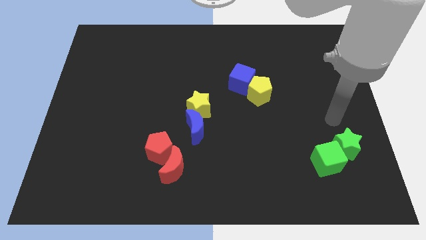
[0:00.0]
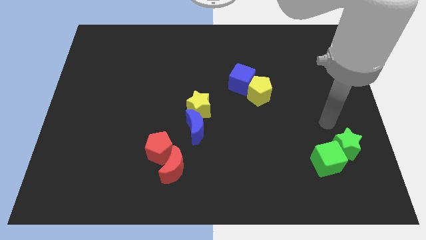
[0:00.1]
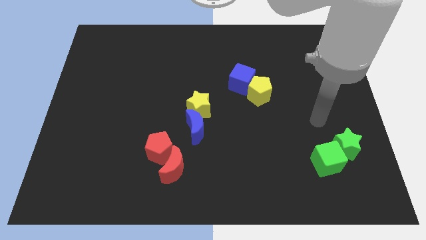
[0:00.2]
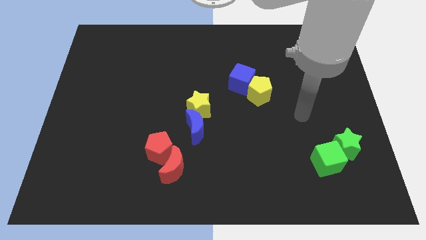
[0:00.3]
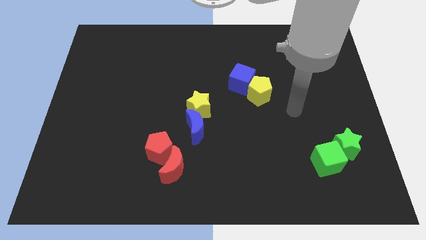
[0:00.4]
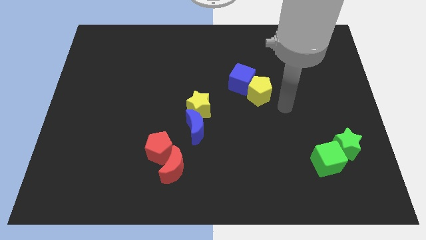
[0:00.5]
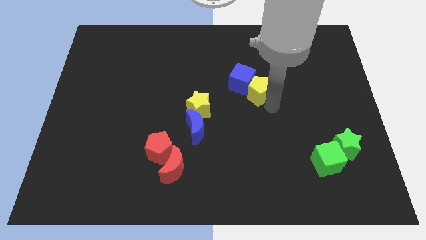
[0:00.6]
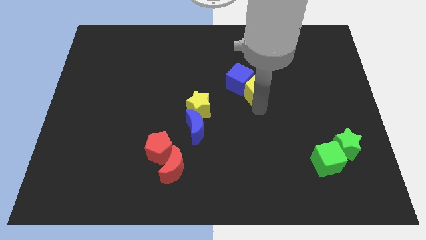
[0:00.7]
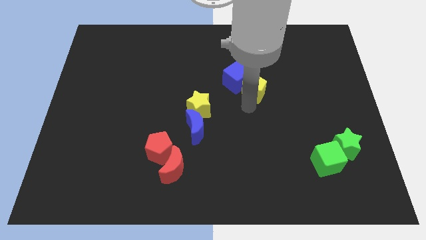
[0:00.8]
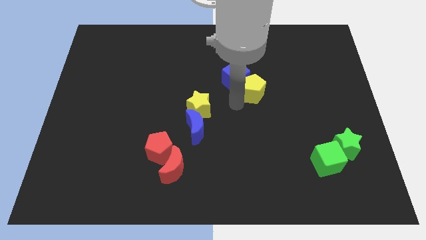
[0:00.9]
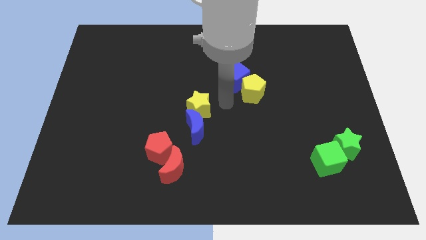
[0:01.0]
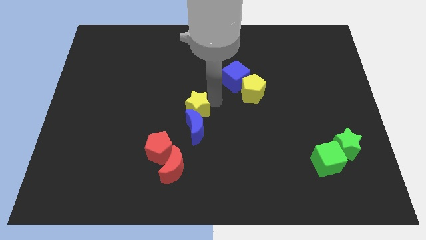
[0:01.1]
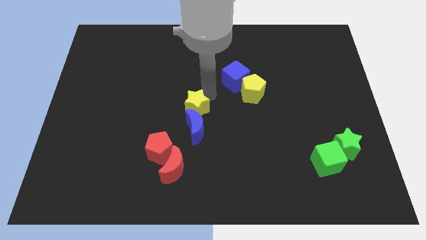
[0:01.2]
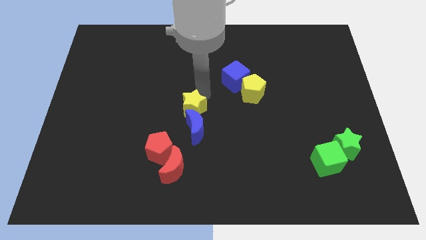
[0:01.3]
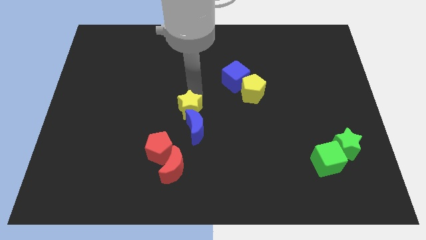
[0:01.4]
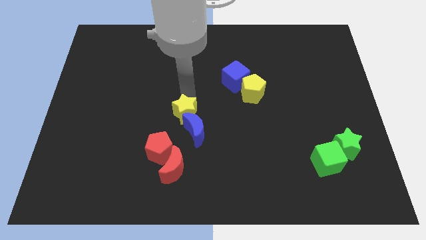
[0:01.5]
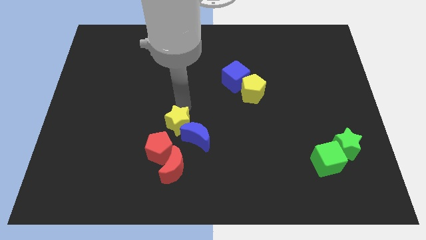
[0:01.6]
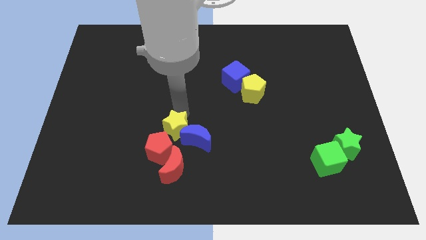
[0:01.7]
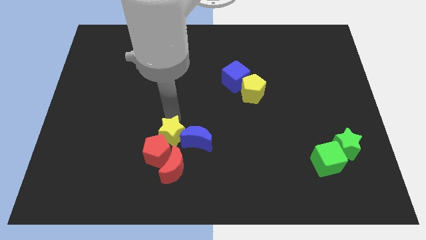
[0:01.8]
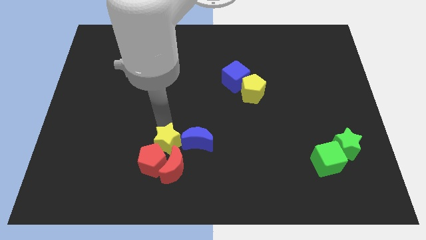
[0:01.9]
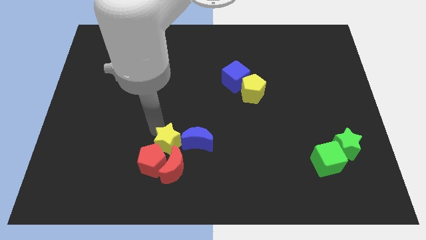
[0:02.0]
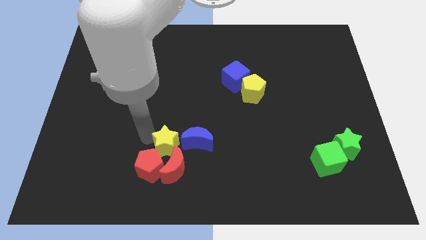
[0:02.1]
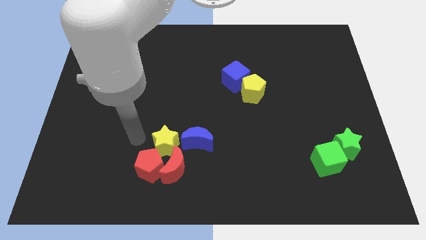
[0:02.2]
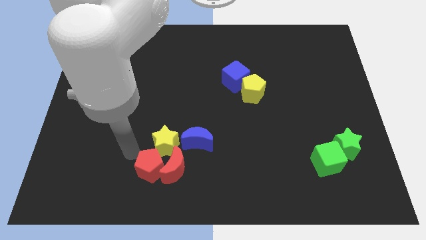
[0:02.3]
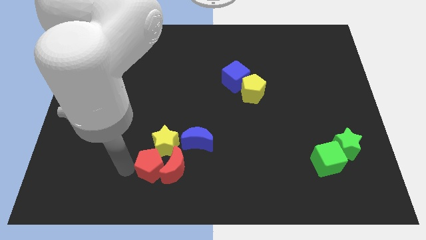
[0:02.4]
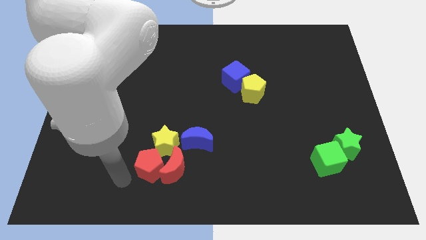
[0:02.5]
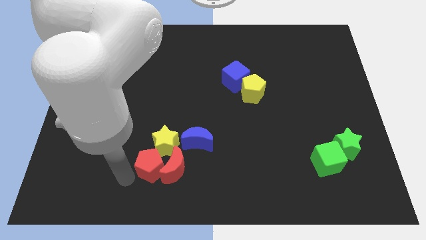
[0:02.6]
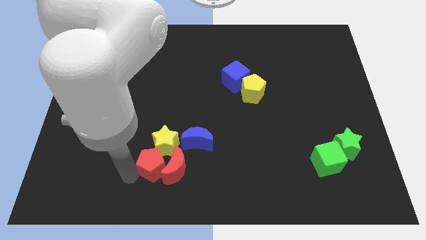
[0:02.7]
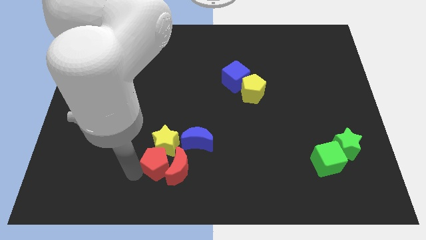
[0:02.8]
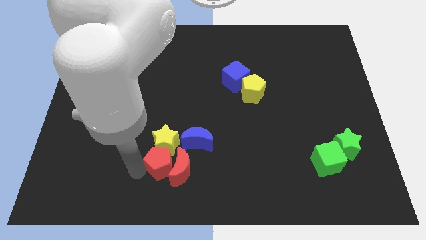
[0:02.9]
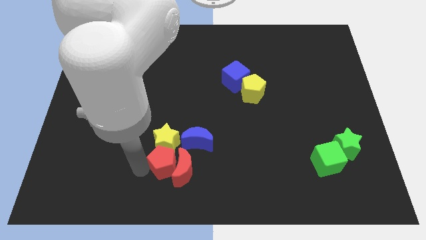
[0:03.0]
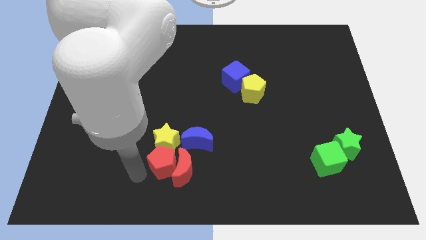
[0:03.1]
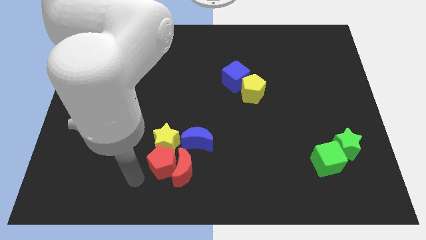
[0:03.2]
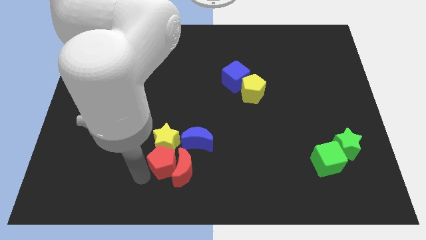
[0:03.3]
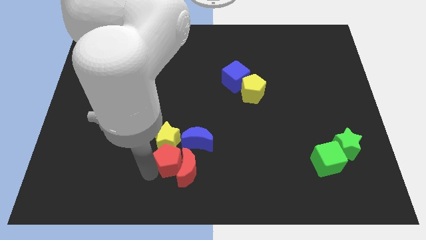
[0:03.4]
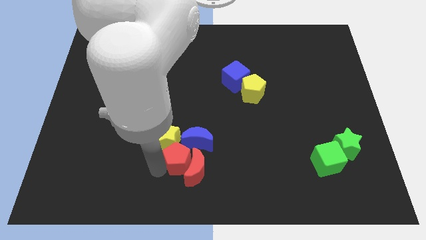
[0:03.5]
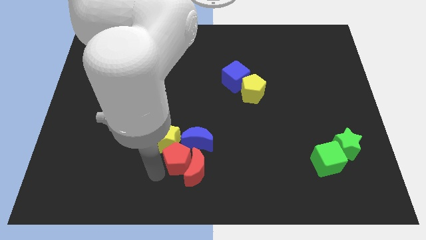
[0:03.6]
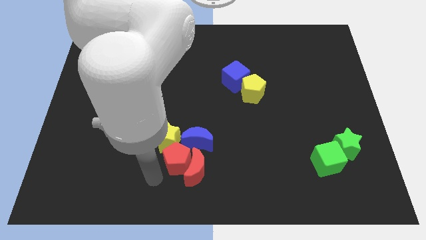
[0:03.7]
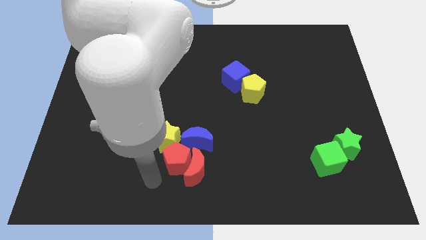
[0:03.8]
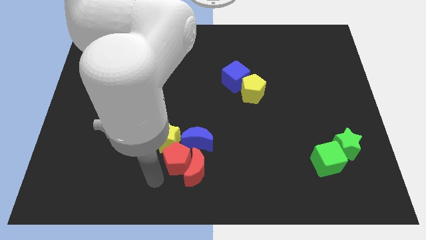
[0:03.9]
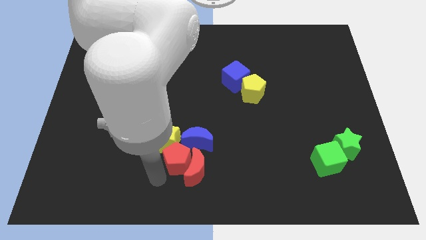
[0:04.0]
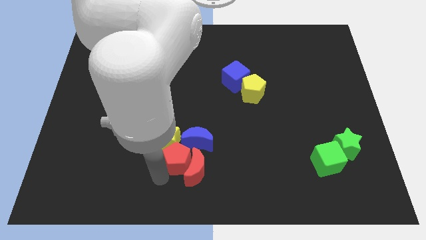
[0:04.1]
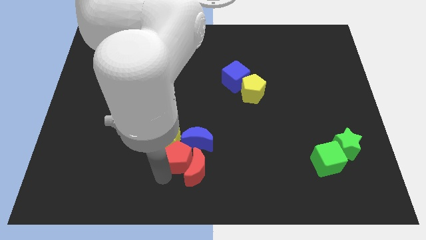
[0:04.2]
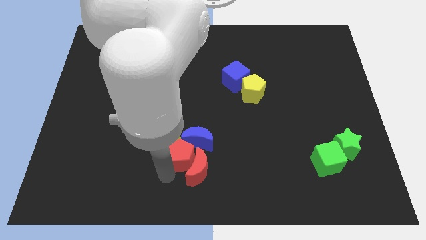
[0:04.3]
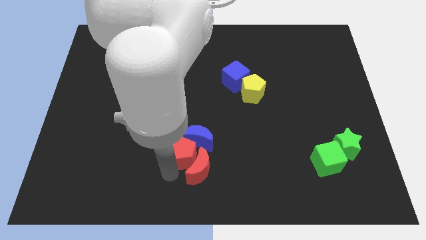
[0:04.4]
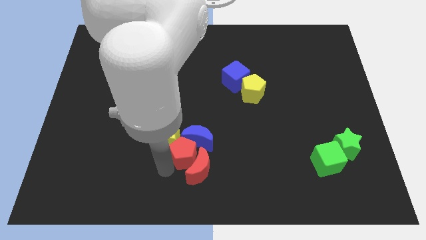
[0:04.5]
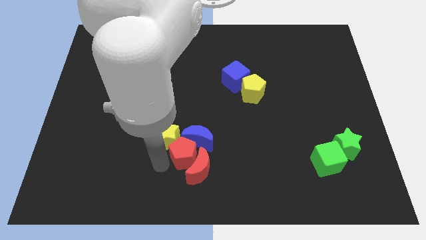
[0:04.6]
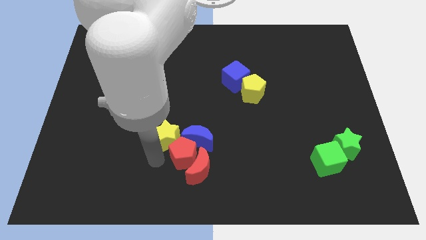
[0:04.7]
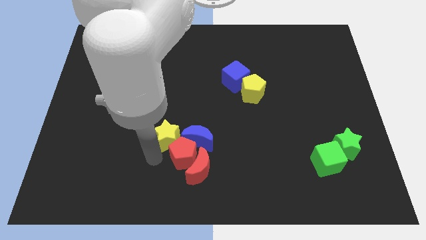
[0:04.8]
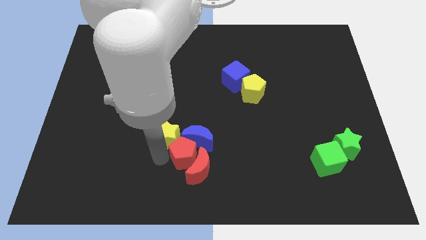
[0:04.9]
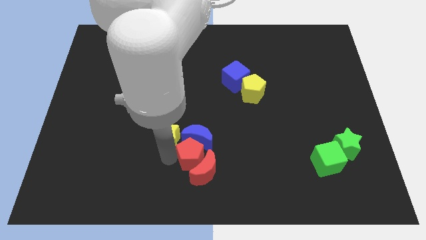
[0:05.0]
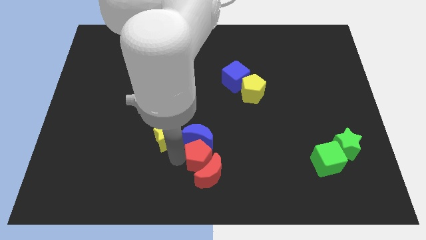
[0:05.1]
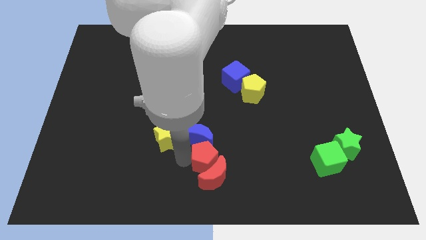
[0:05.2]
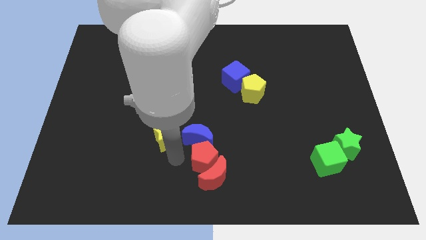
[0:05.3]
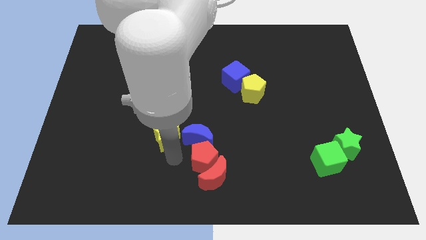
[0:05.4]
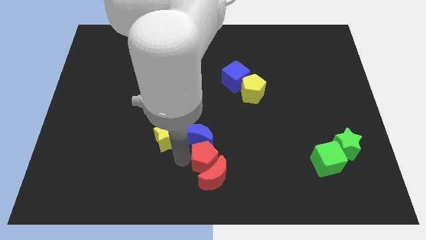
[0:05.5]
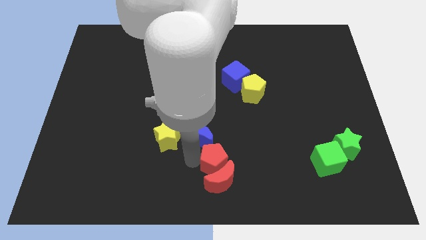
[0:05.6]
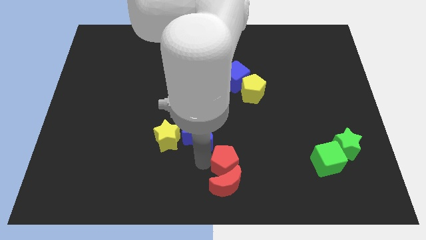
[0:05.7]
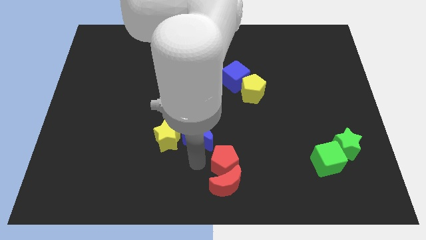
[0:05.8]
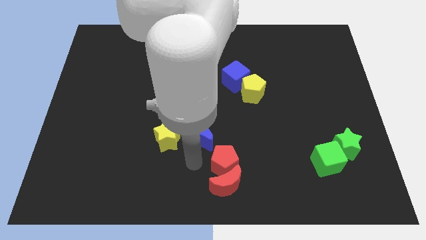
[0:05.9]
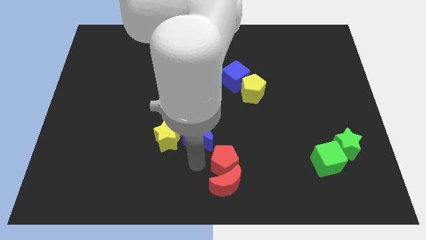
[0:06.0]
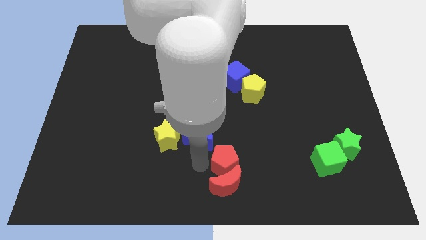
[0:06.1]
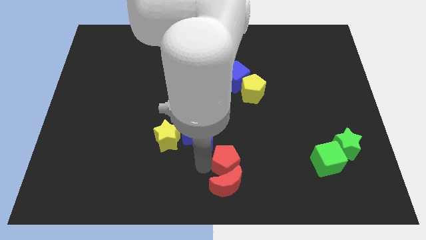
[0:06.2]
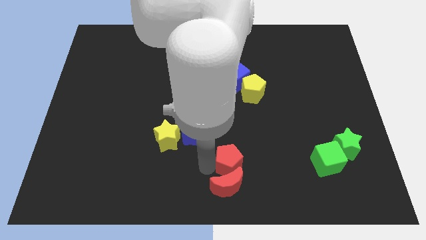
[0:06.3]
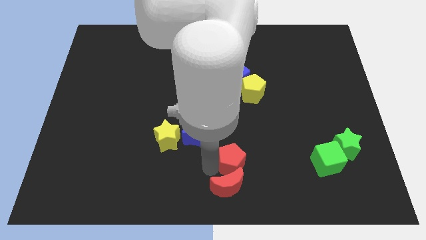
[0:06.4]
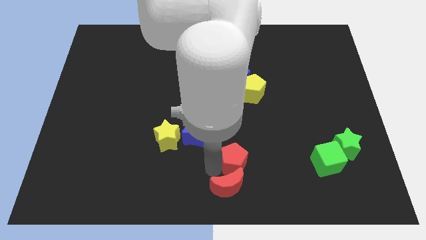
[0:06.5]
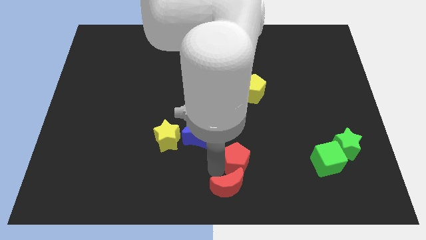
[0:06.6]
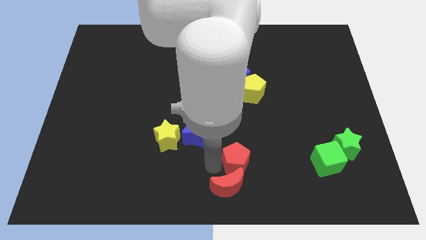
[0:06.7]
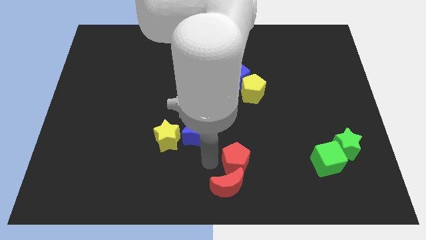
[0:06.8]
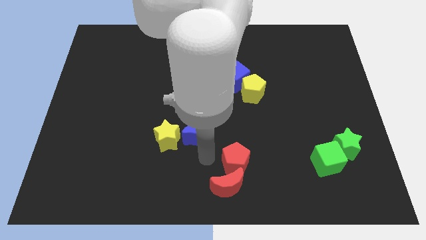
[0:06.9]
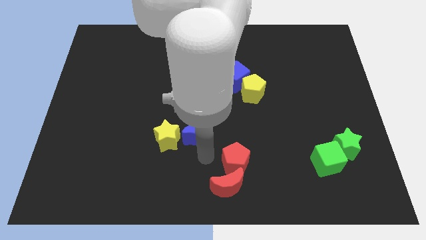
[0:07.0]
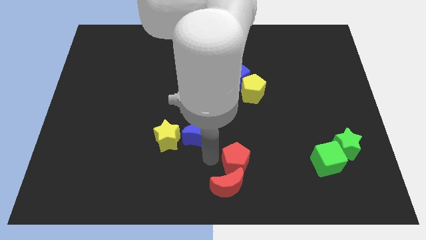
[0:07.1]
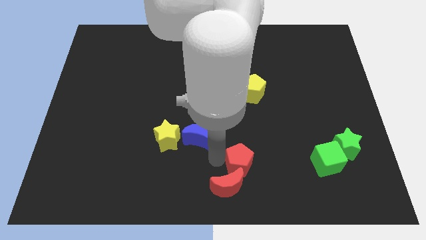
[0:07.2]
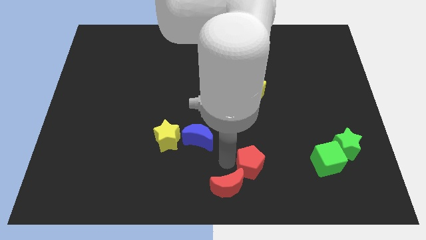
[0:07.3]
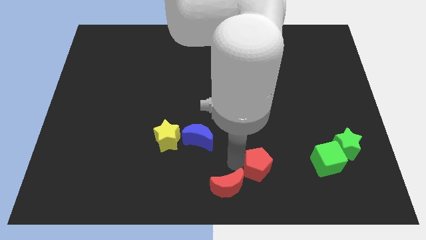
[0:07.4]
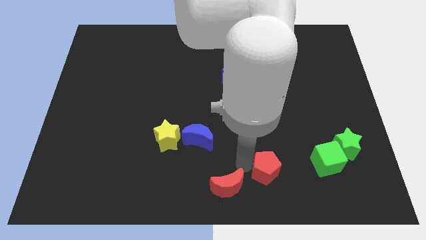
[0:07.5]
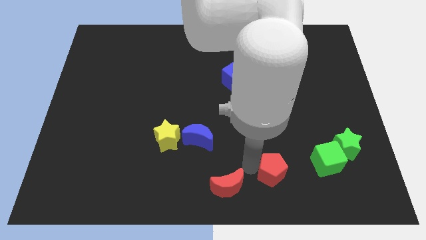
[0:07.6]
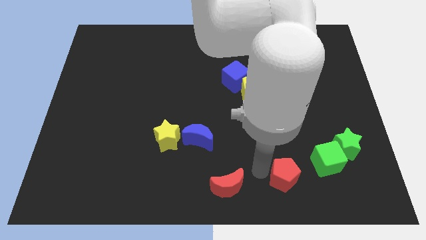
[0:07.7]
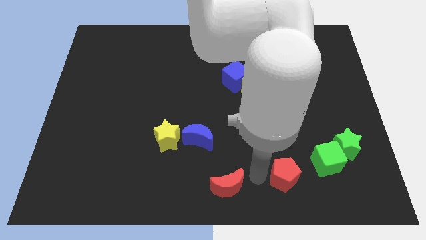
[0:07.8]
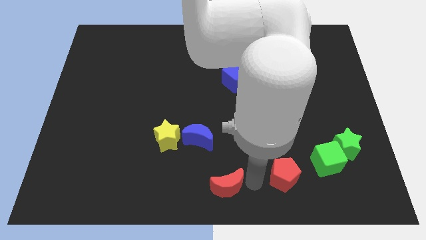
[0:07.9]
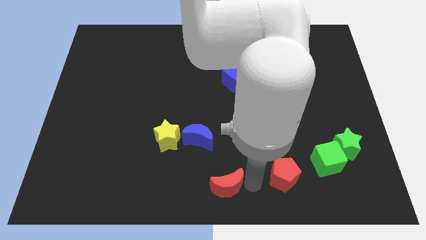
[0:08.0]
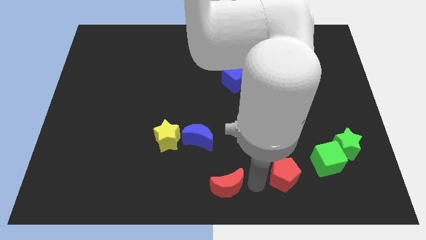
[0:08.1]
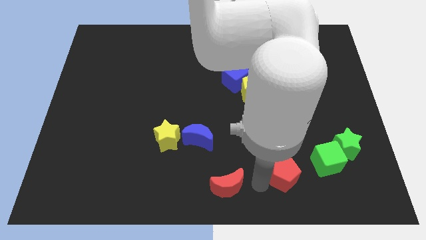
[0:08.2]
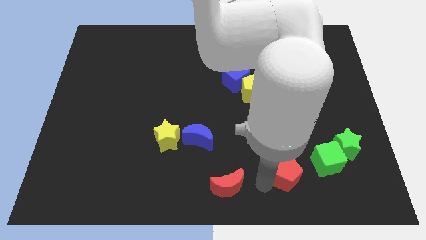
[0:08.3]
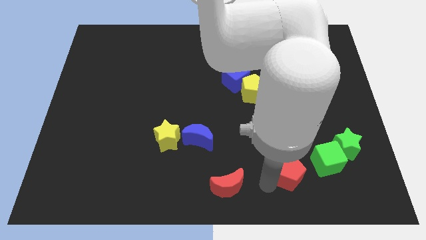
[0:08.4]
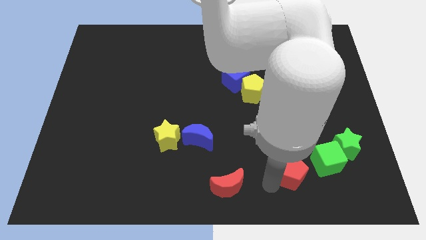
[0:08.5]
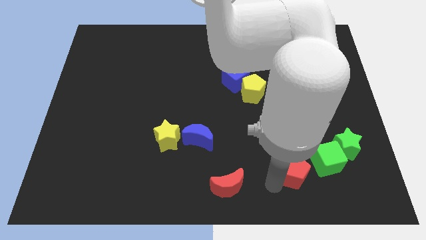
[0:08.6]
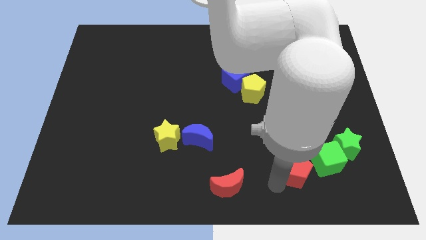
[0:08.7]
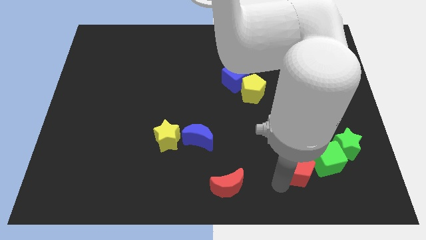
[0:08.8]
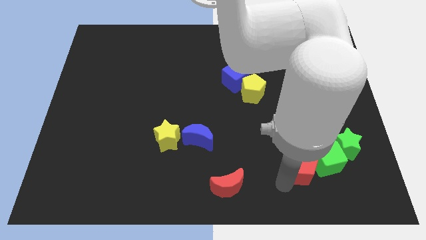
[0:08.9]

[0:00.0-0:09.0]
put the red pentagon close to the green cube
